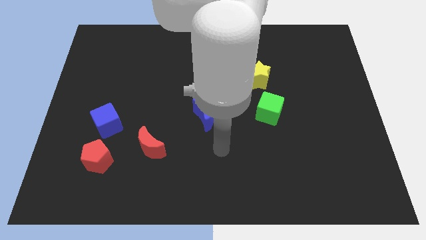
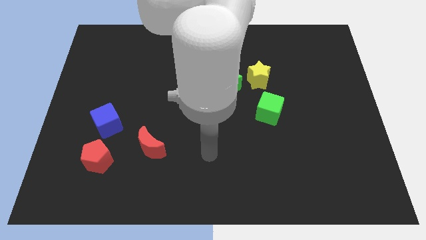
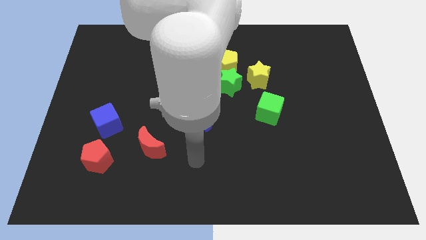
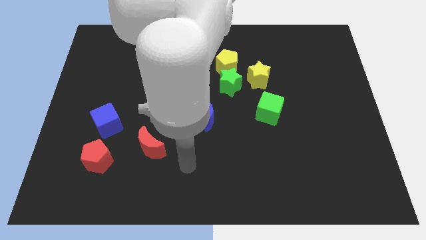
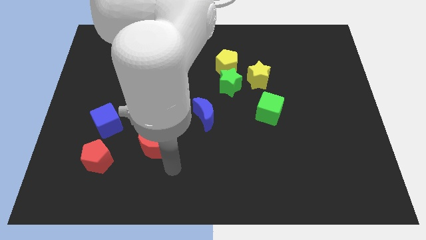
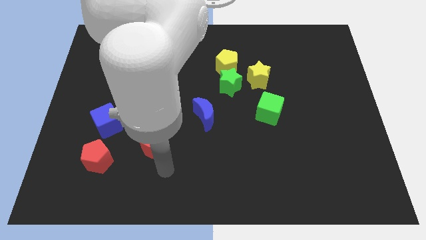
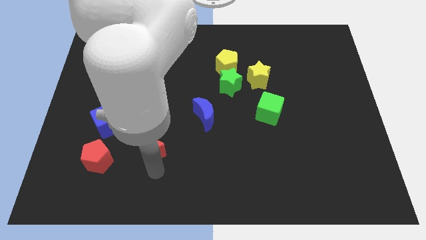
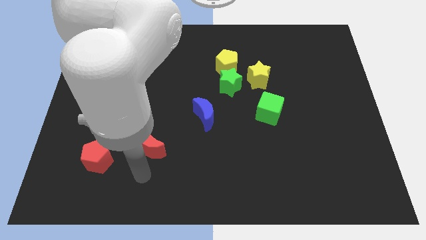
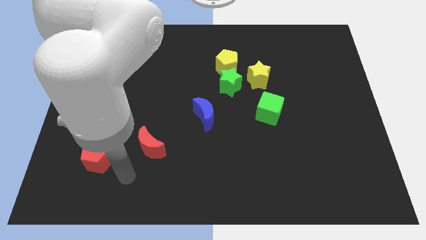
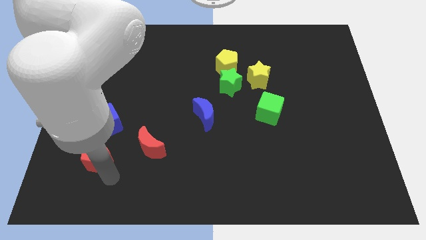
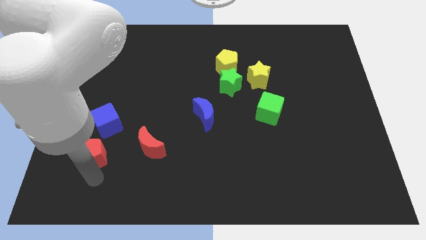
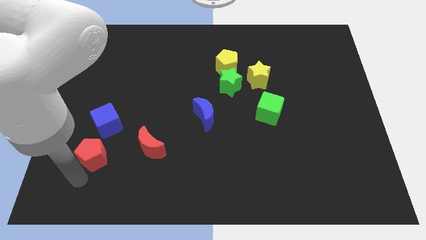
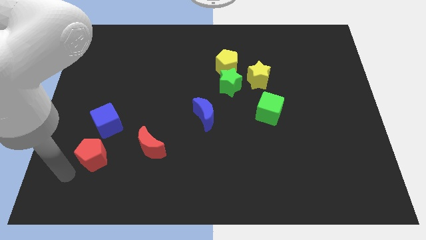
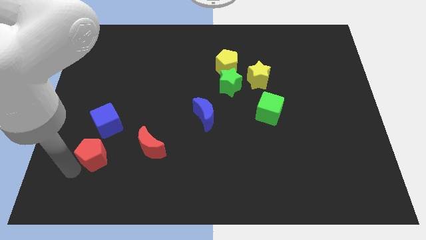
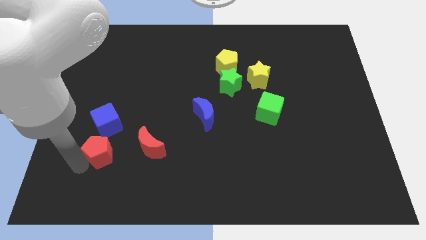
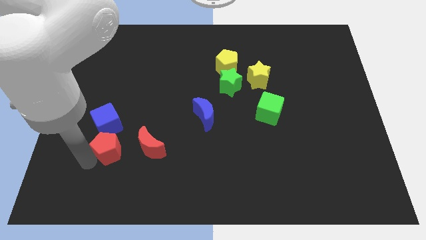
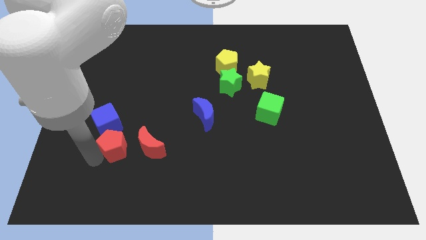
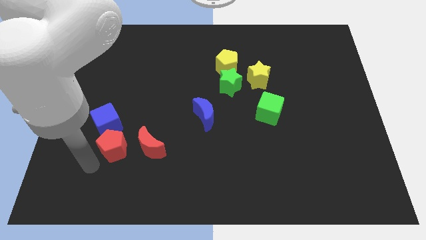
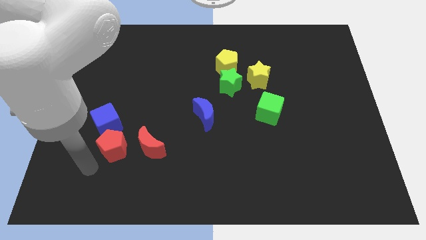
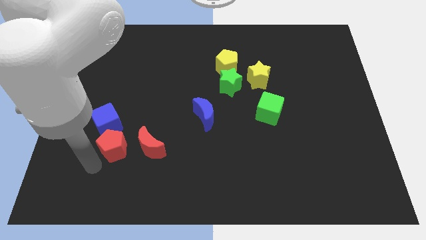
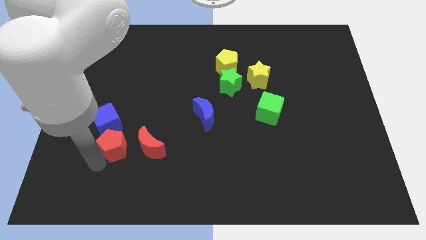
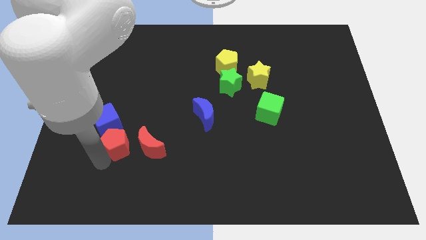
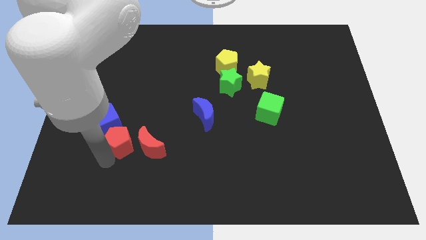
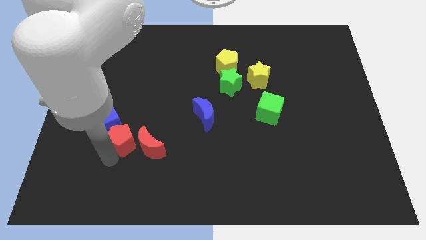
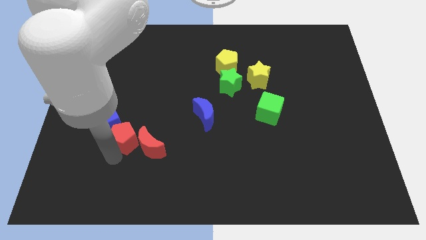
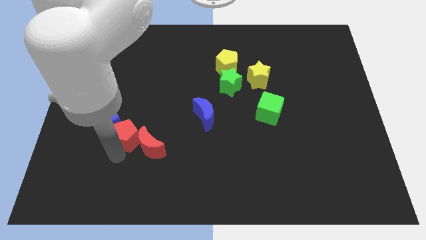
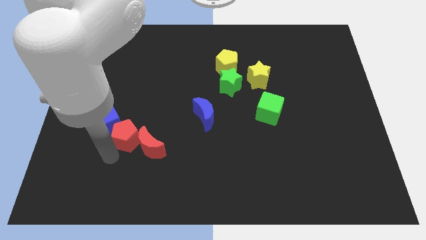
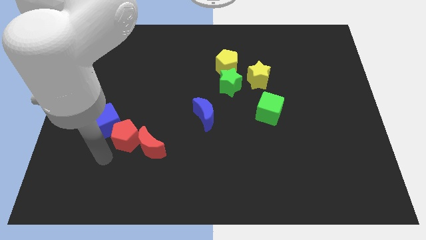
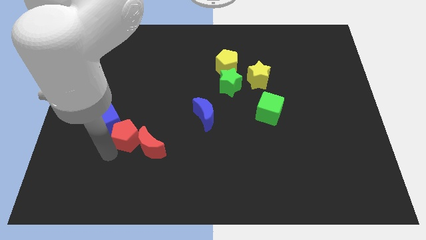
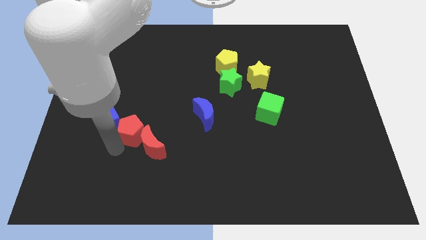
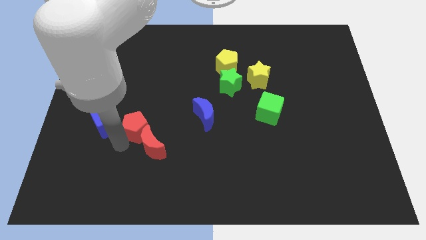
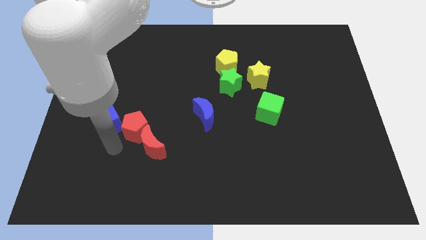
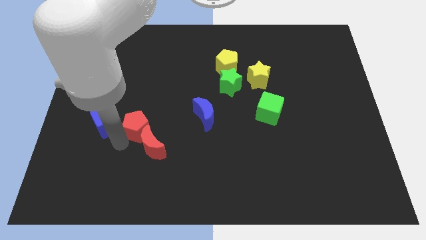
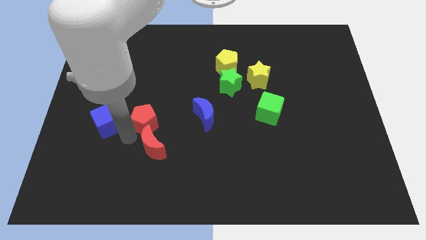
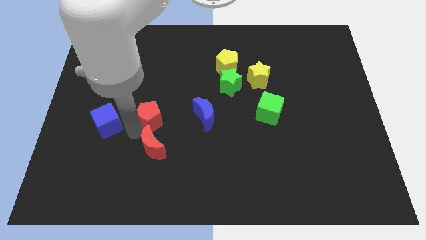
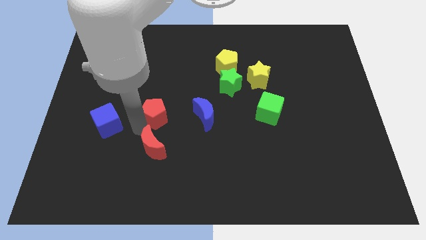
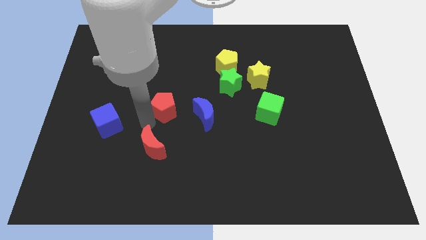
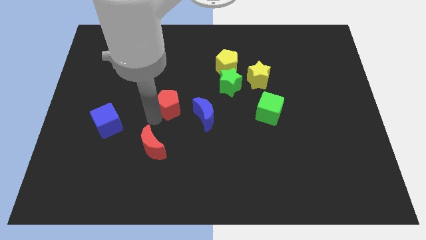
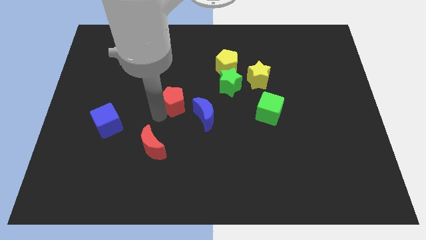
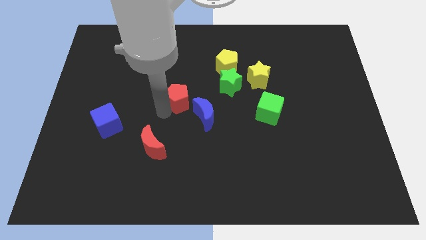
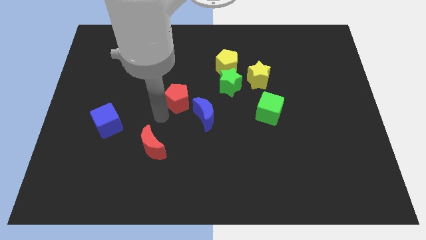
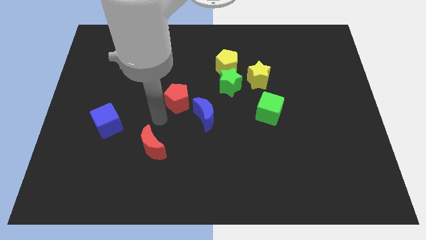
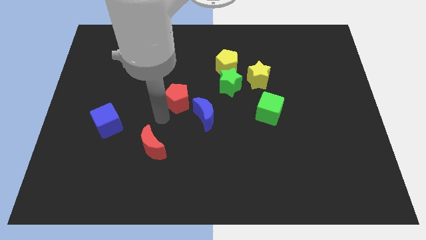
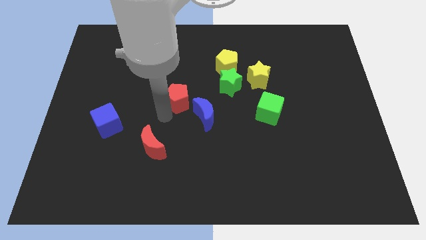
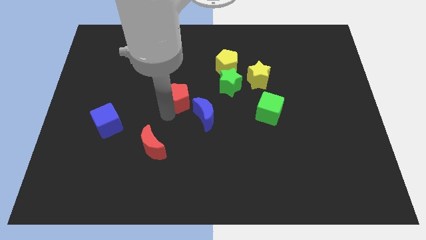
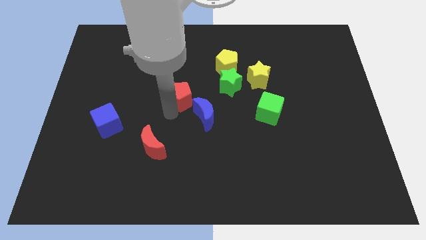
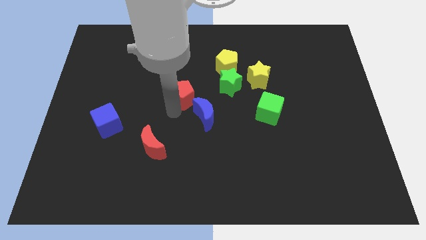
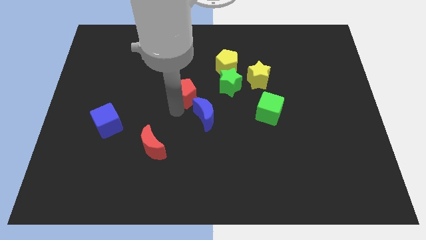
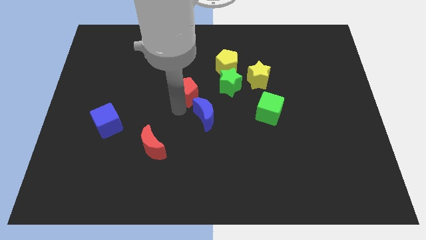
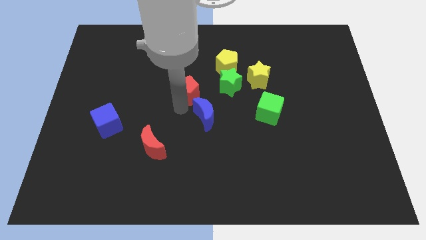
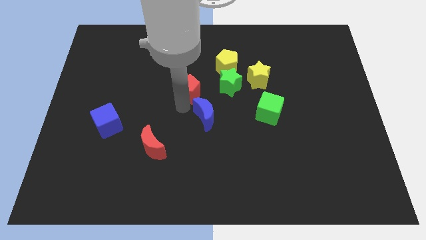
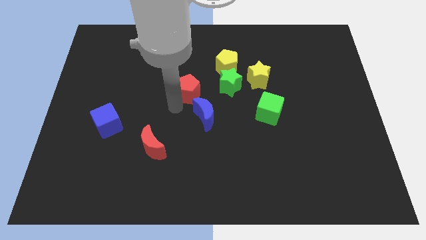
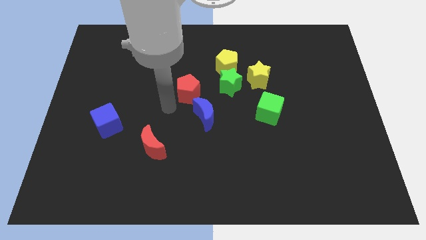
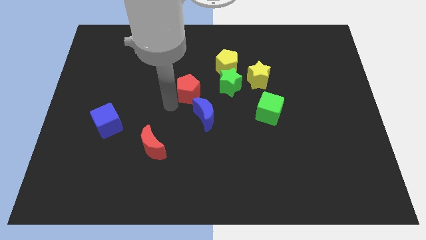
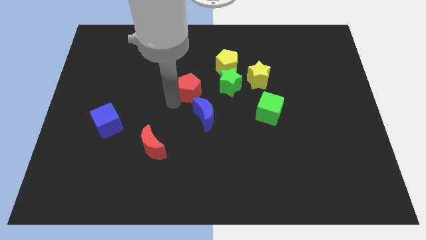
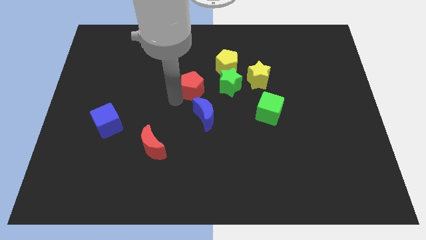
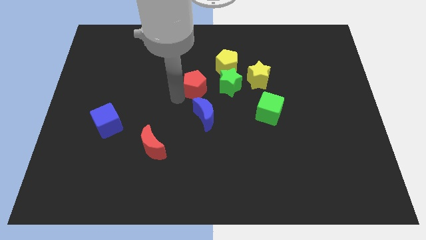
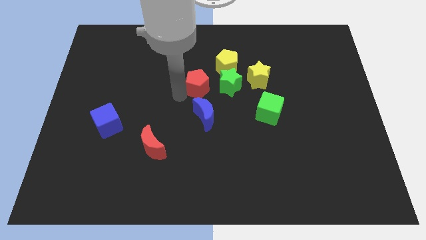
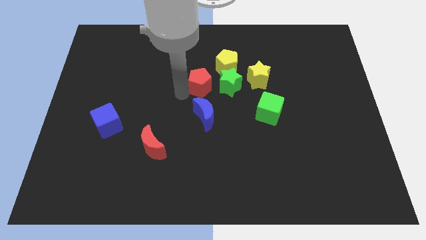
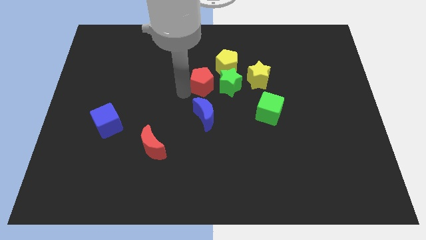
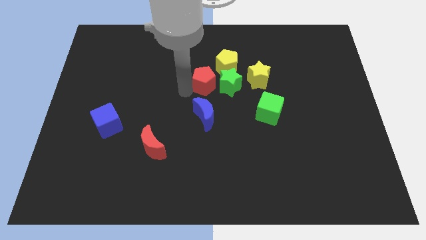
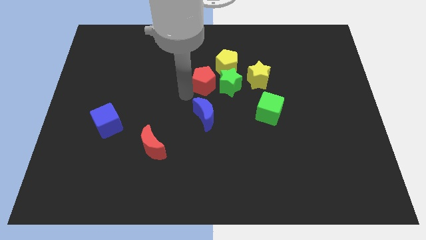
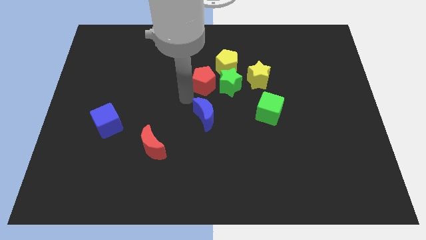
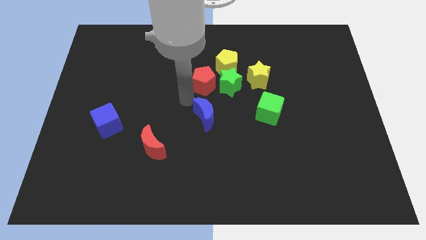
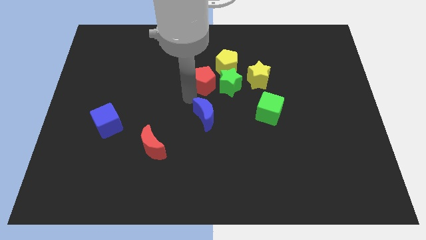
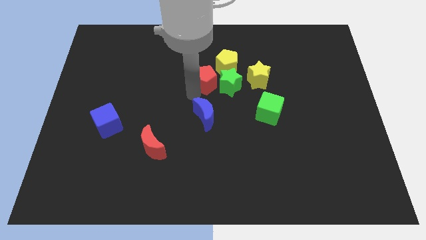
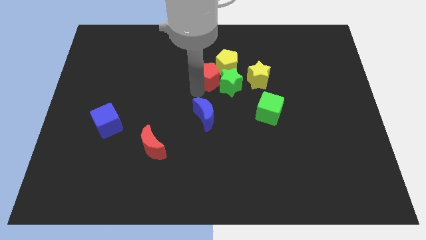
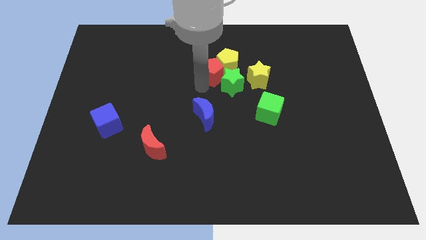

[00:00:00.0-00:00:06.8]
put the red pentagon close to the yellow pentagon

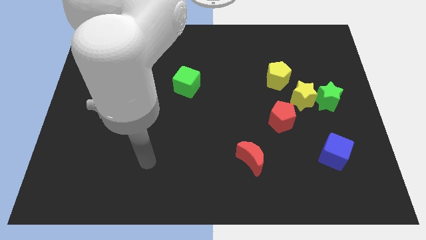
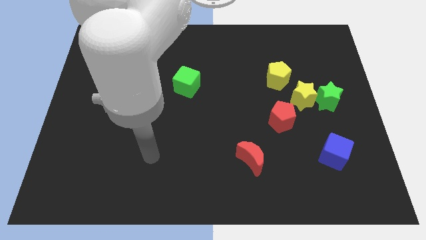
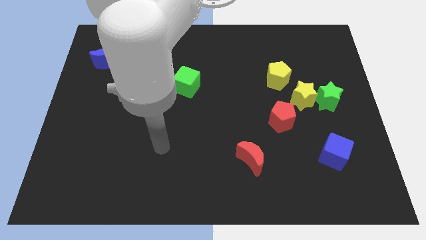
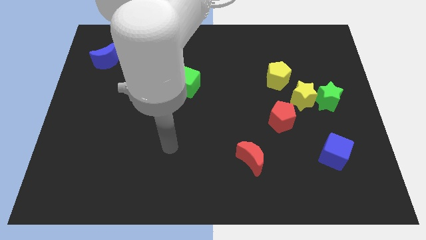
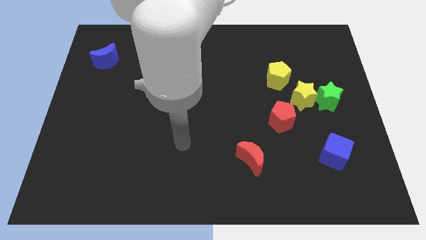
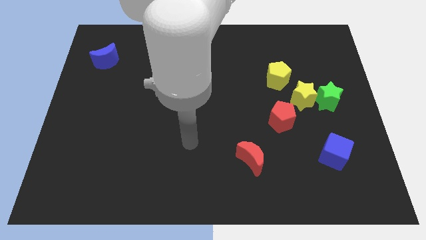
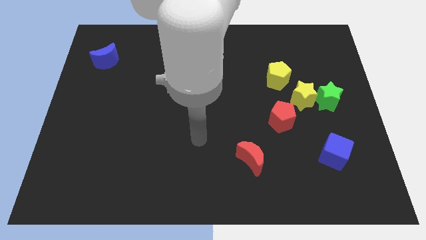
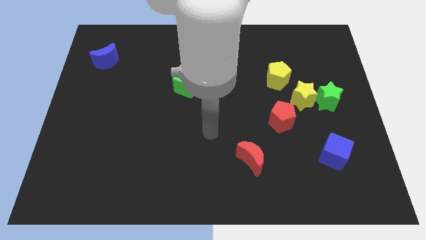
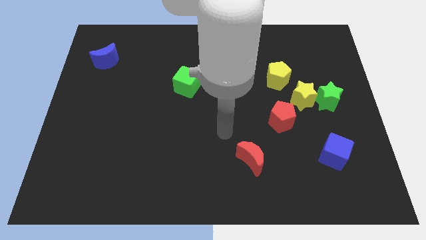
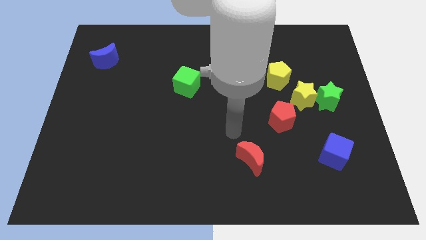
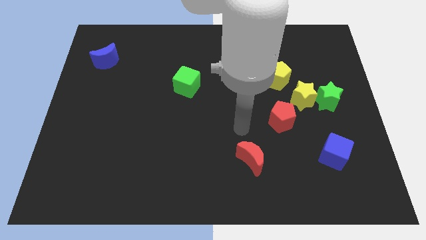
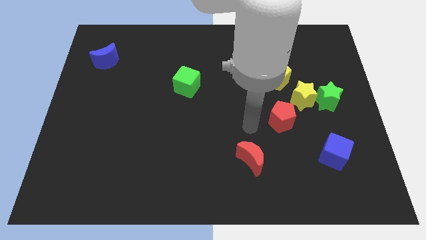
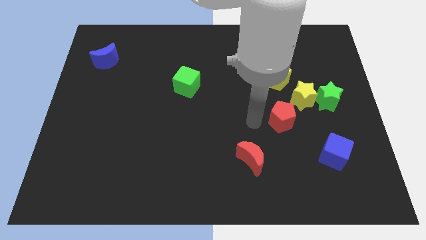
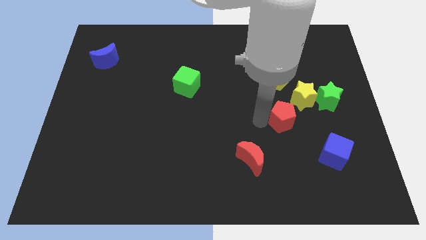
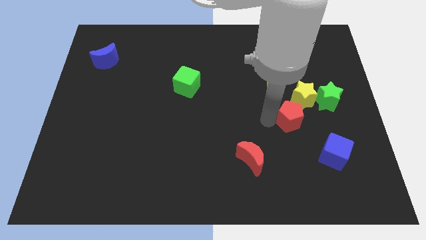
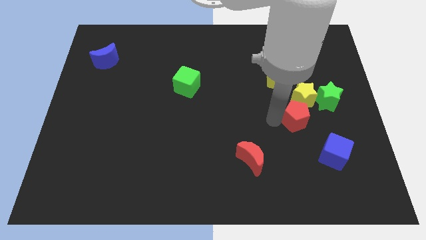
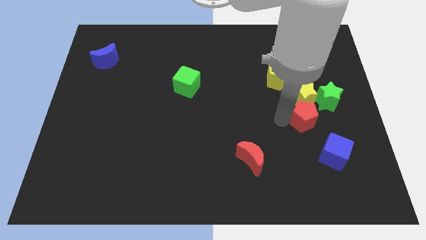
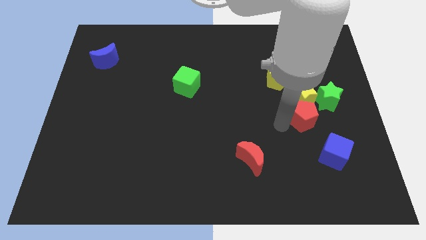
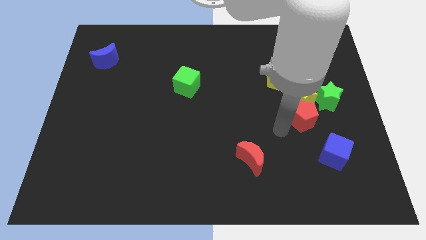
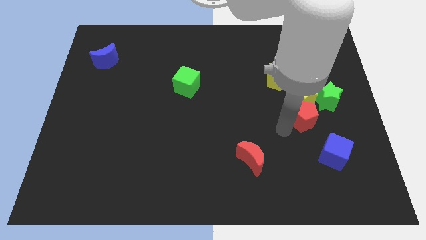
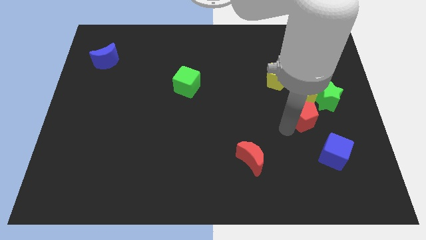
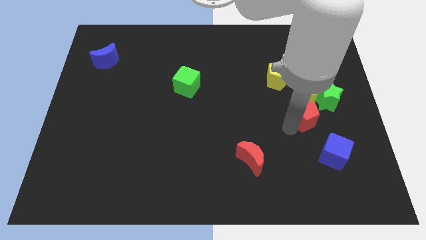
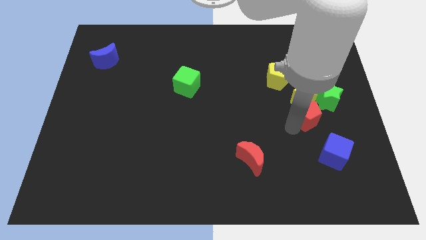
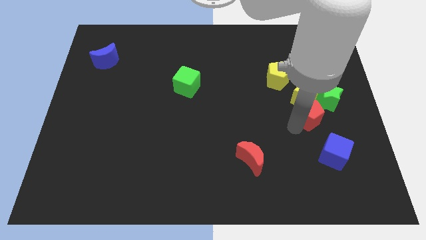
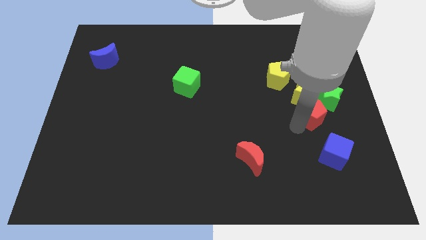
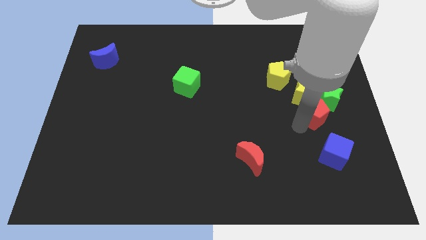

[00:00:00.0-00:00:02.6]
put the red pentagon close to the green star
